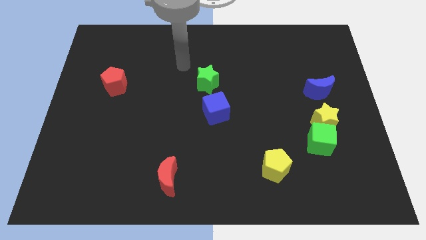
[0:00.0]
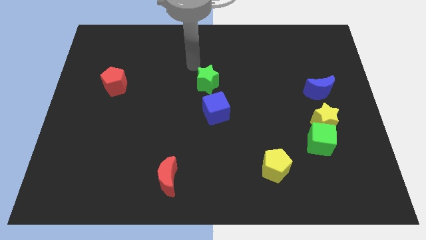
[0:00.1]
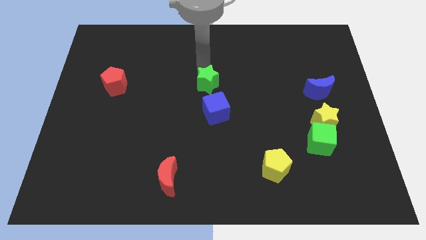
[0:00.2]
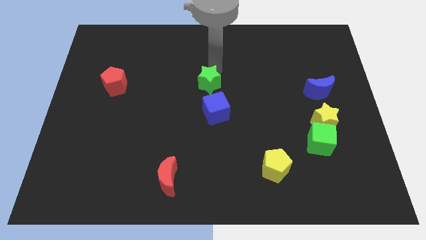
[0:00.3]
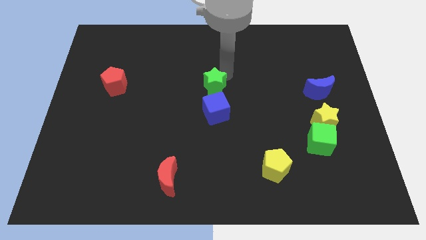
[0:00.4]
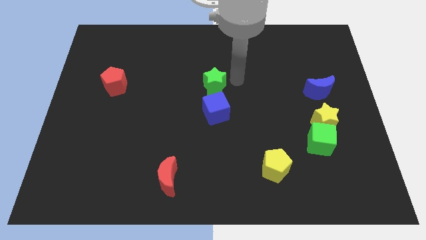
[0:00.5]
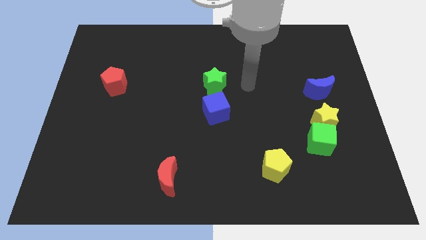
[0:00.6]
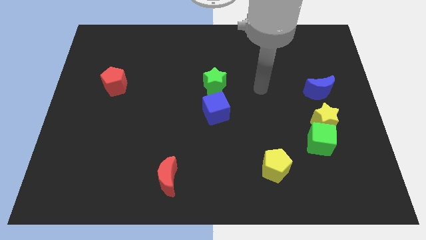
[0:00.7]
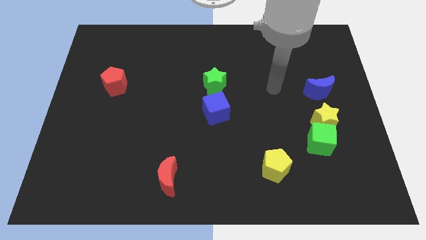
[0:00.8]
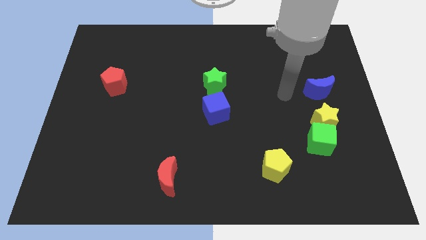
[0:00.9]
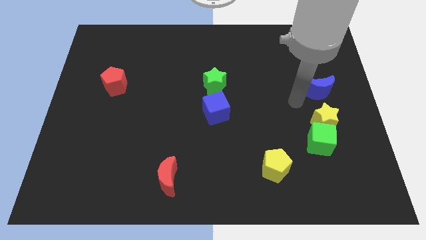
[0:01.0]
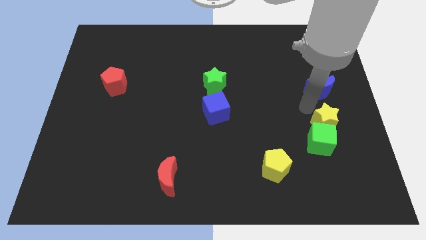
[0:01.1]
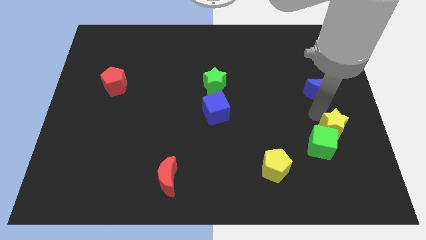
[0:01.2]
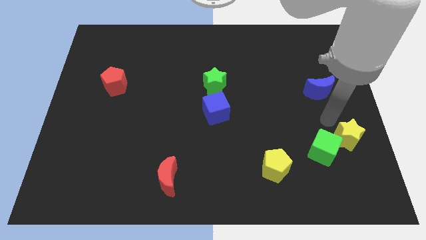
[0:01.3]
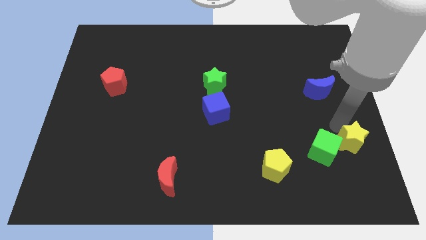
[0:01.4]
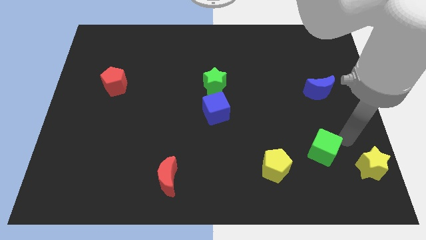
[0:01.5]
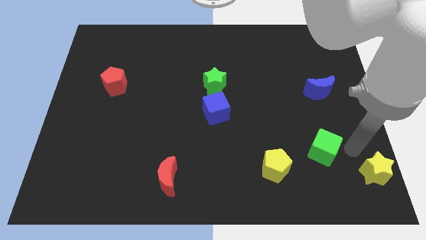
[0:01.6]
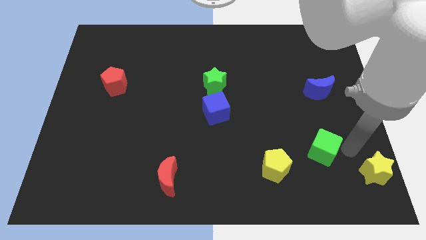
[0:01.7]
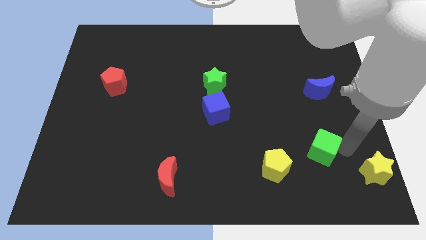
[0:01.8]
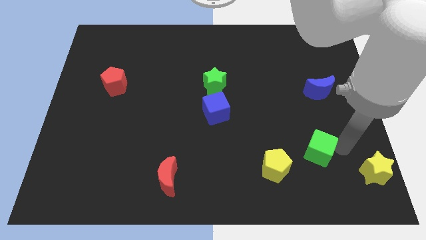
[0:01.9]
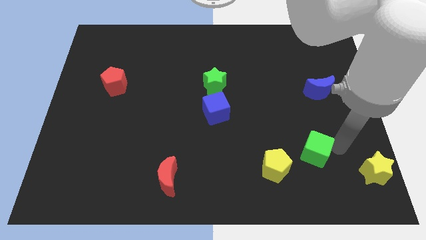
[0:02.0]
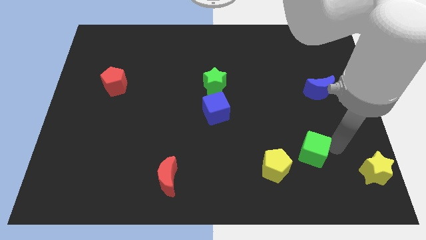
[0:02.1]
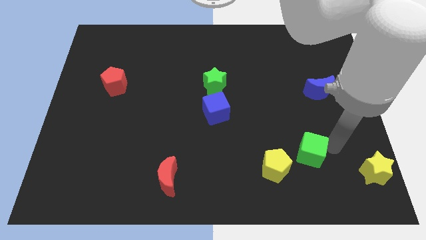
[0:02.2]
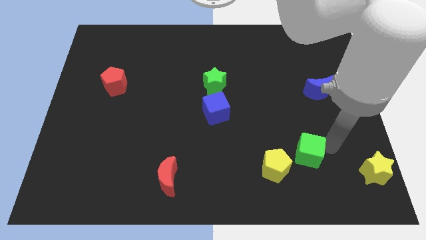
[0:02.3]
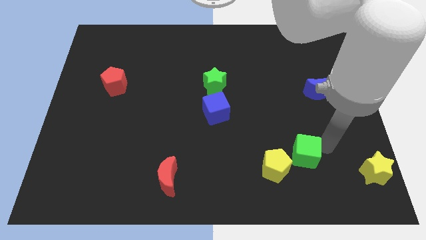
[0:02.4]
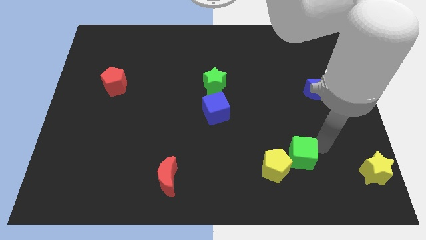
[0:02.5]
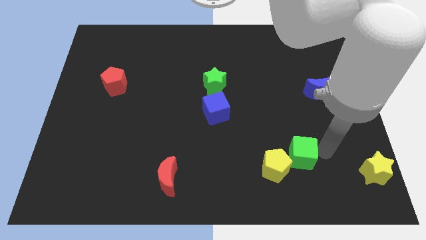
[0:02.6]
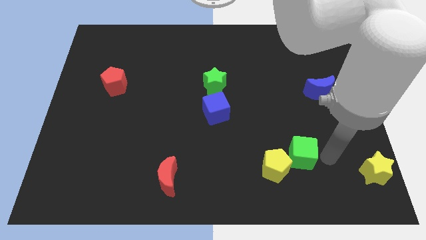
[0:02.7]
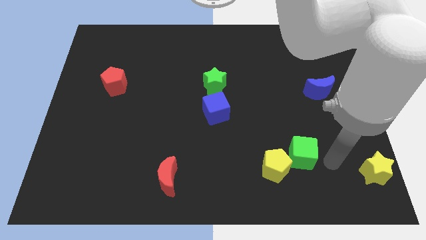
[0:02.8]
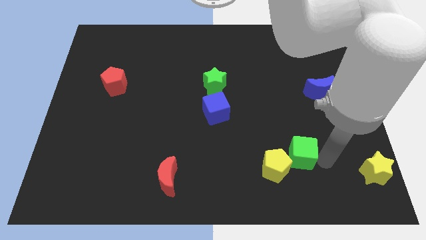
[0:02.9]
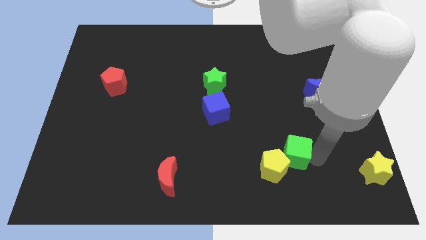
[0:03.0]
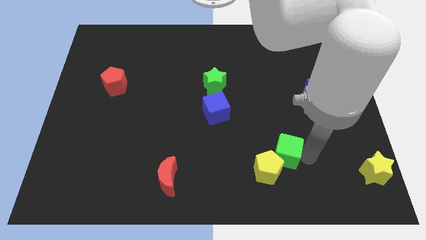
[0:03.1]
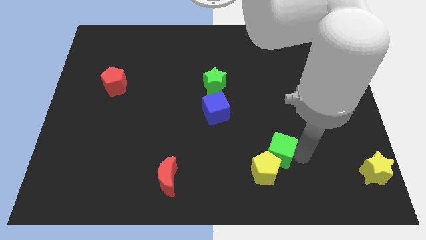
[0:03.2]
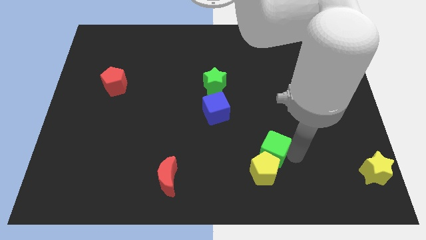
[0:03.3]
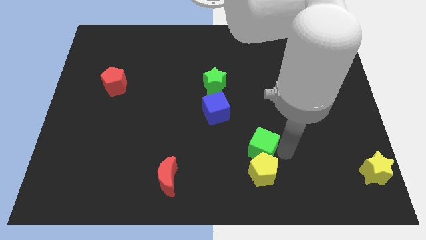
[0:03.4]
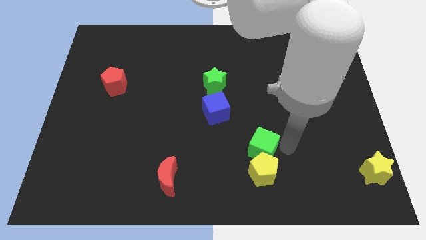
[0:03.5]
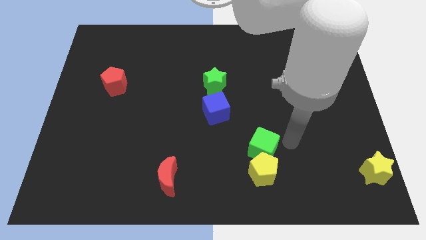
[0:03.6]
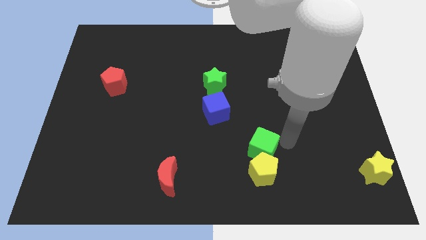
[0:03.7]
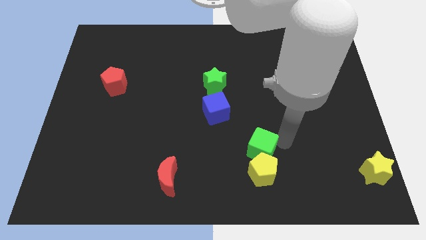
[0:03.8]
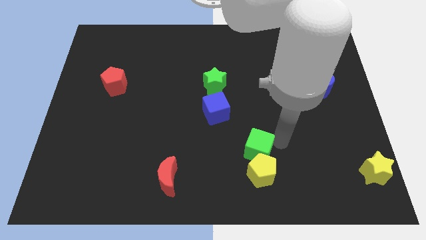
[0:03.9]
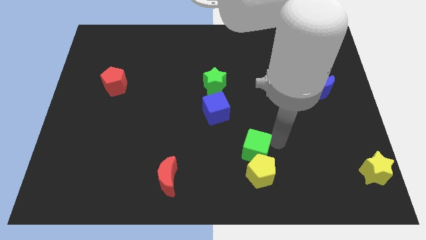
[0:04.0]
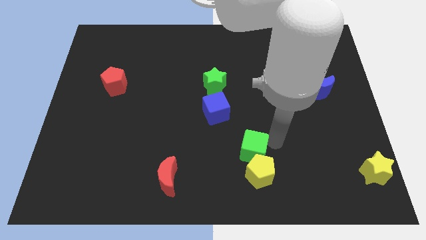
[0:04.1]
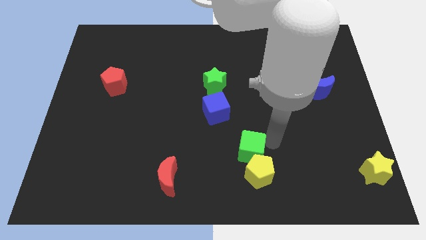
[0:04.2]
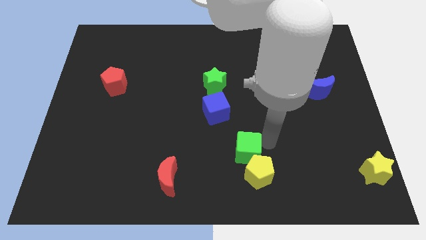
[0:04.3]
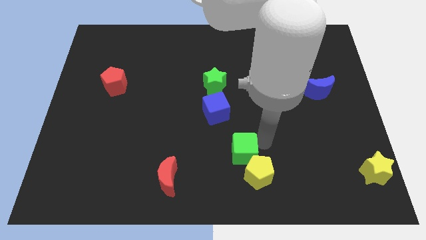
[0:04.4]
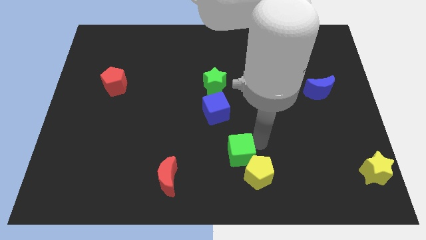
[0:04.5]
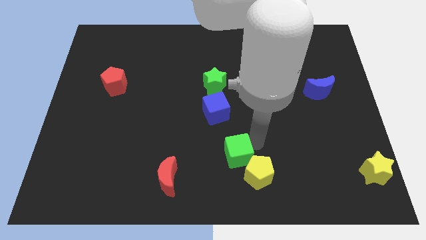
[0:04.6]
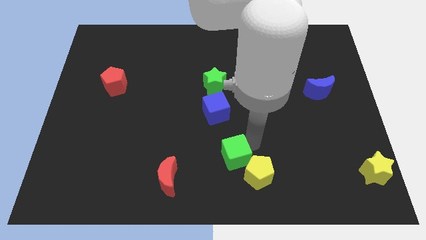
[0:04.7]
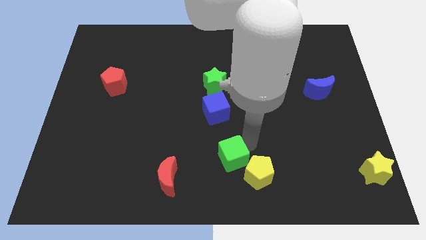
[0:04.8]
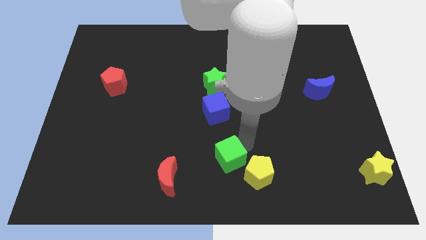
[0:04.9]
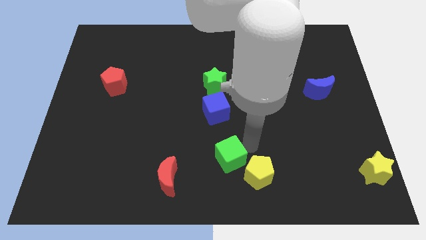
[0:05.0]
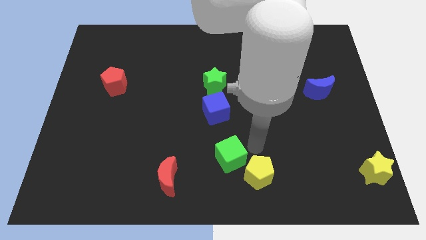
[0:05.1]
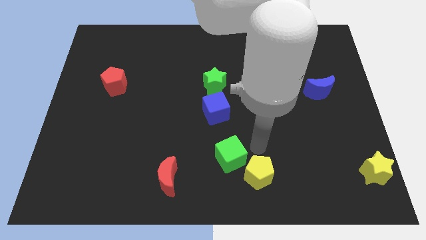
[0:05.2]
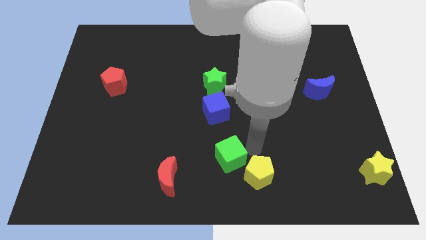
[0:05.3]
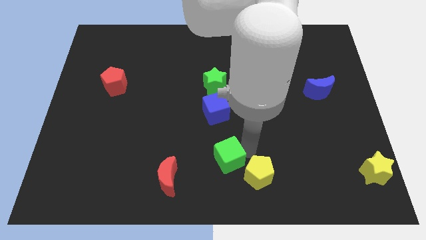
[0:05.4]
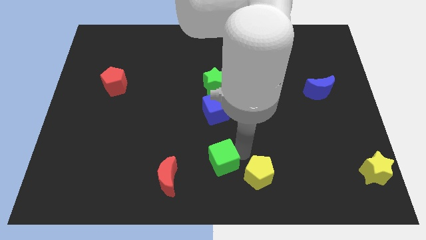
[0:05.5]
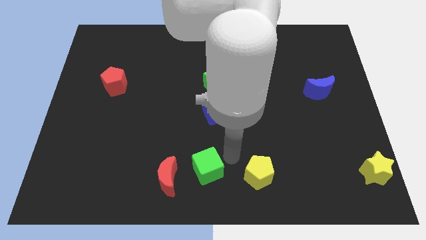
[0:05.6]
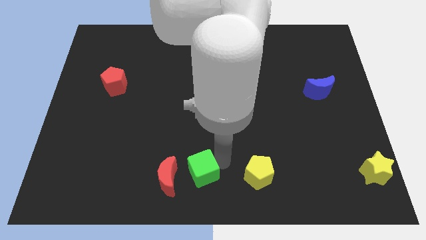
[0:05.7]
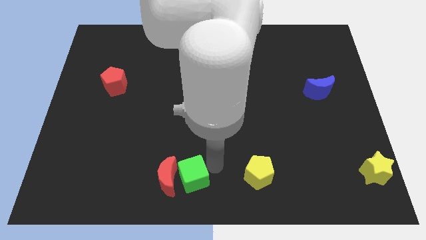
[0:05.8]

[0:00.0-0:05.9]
move the green cube close to the red moon

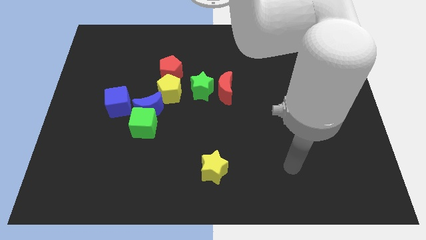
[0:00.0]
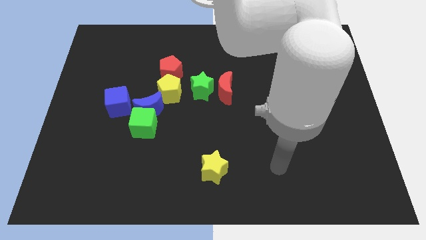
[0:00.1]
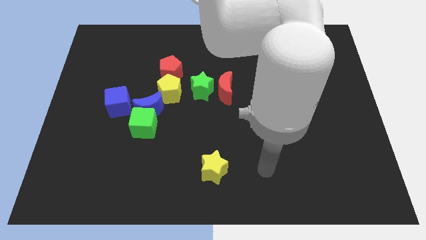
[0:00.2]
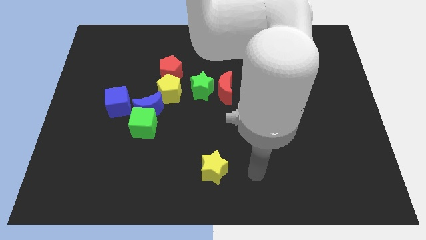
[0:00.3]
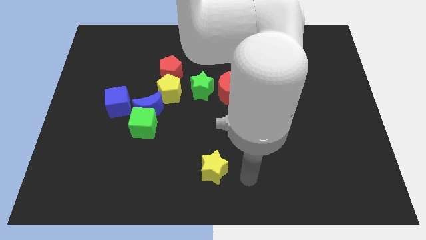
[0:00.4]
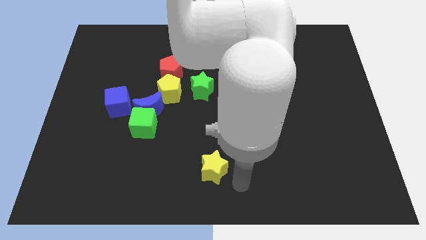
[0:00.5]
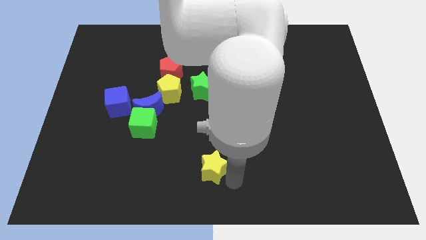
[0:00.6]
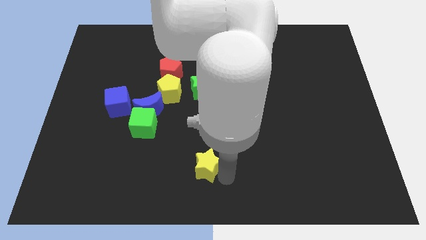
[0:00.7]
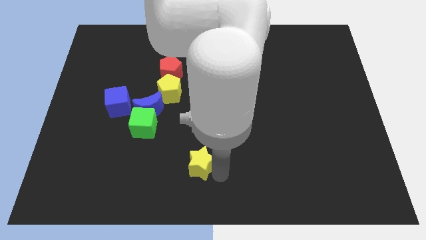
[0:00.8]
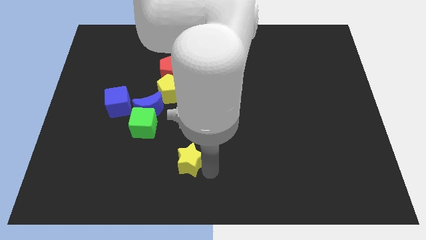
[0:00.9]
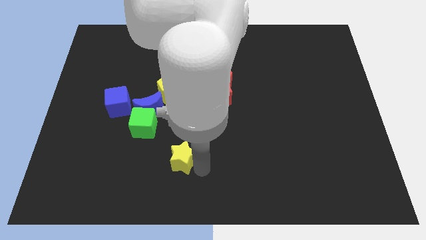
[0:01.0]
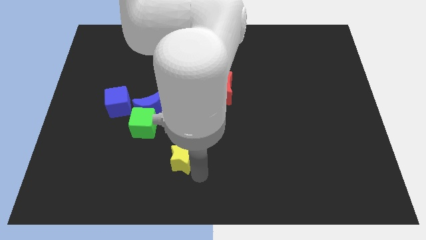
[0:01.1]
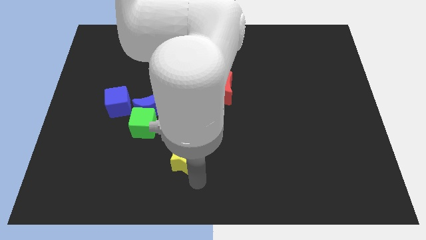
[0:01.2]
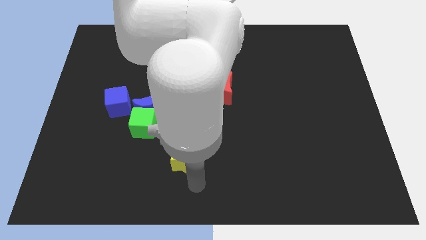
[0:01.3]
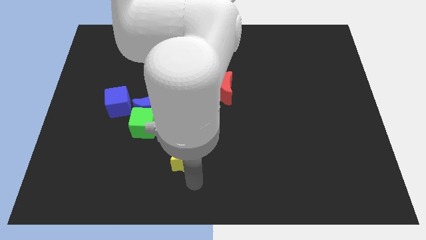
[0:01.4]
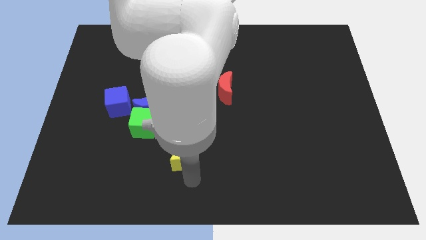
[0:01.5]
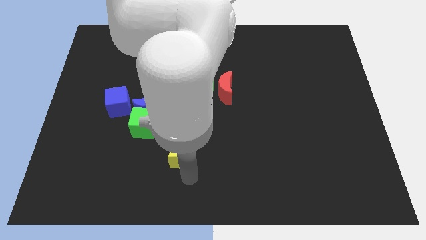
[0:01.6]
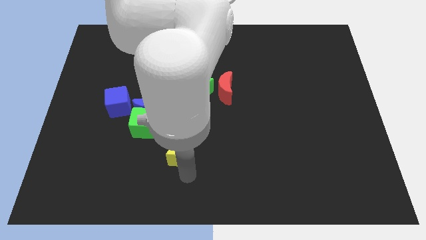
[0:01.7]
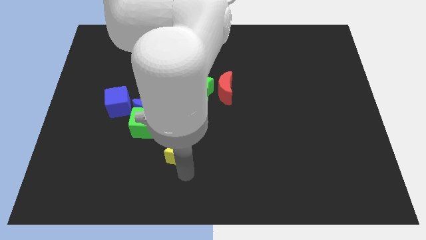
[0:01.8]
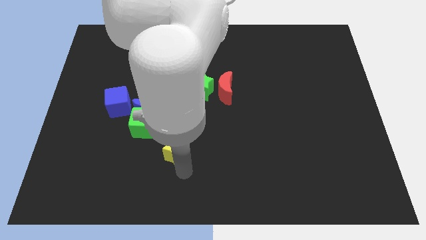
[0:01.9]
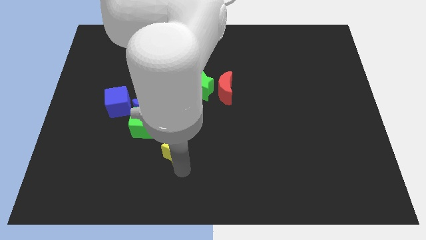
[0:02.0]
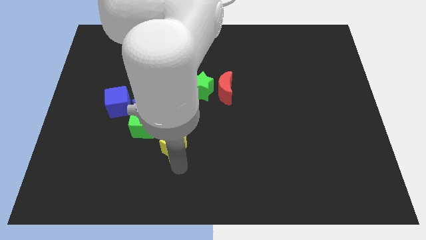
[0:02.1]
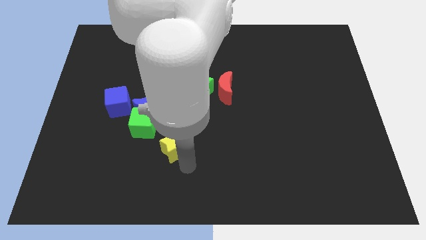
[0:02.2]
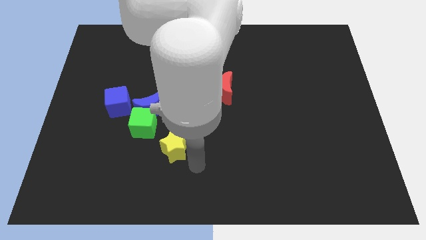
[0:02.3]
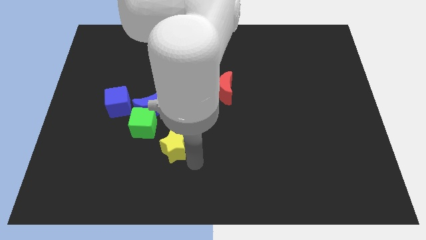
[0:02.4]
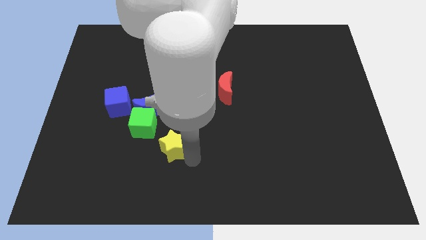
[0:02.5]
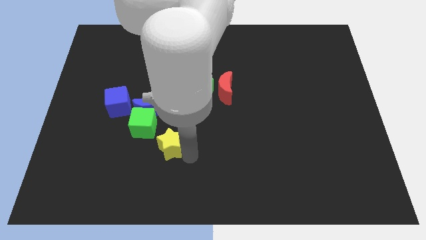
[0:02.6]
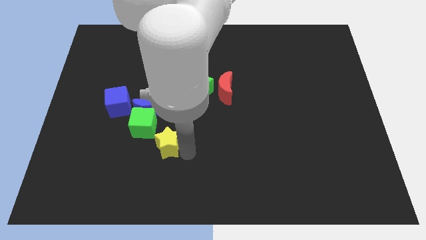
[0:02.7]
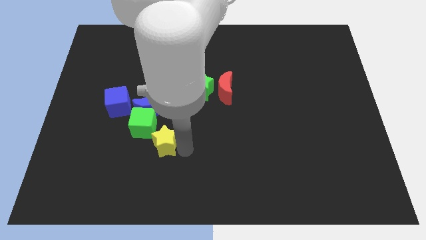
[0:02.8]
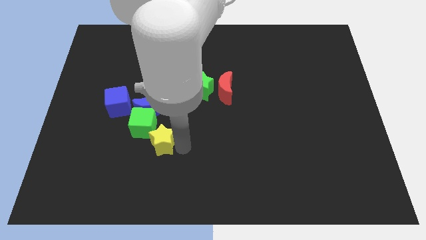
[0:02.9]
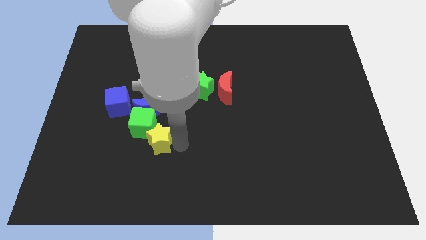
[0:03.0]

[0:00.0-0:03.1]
slide the yellow star close to the green cube
